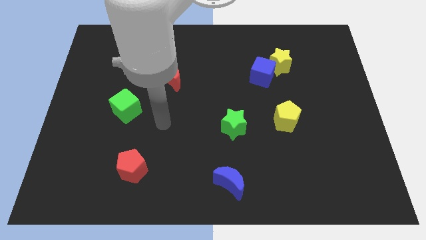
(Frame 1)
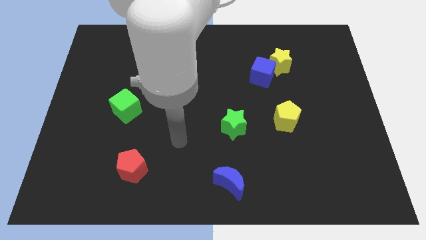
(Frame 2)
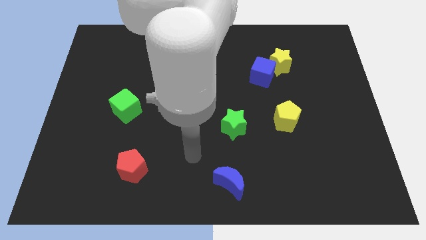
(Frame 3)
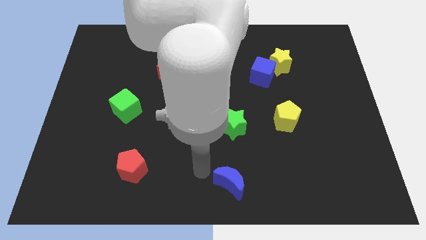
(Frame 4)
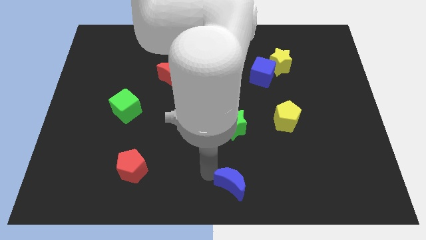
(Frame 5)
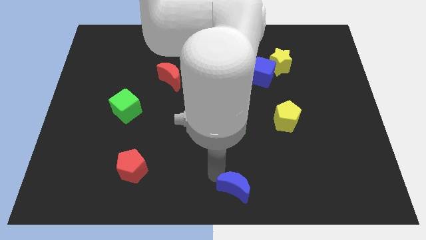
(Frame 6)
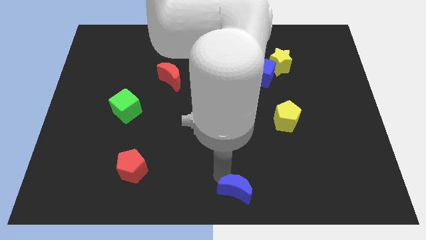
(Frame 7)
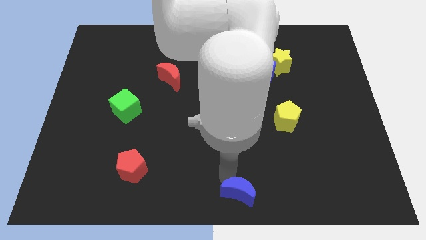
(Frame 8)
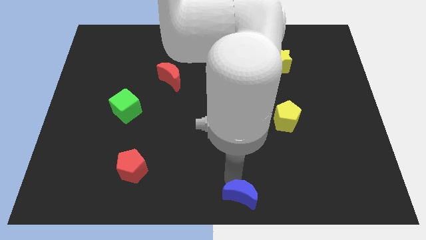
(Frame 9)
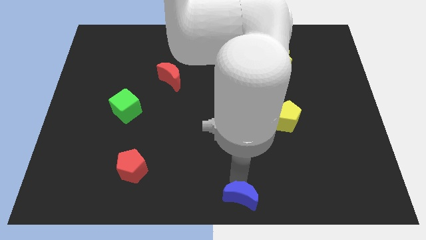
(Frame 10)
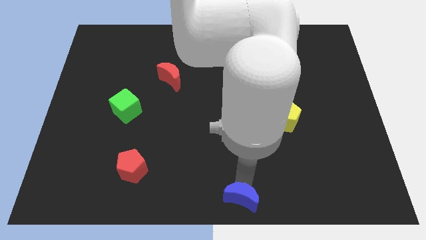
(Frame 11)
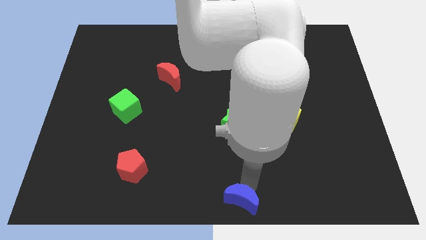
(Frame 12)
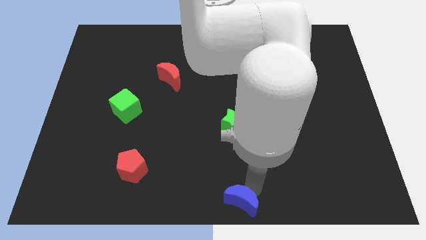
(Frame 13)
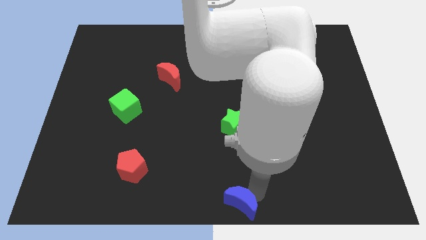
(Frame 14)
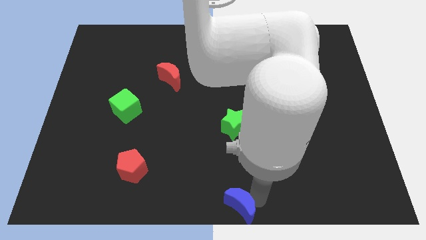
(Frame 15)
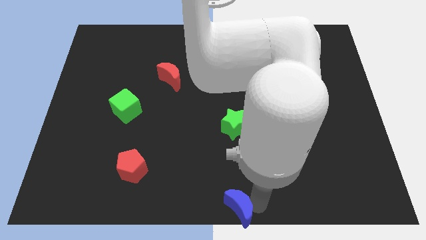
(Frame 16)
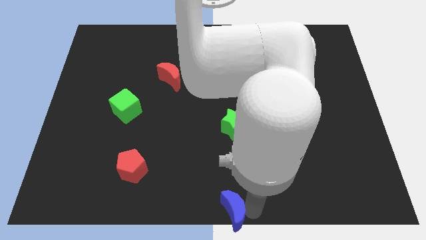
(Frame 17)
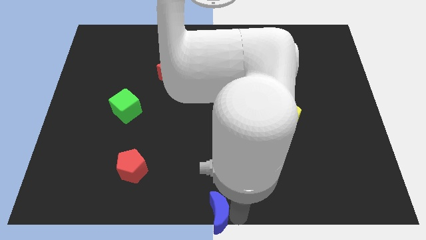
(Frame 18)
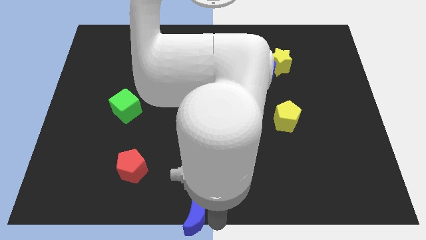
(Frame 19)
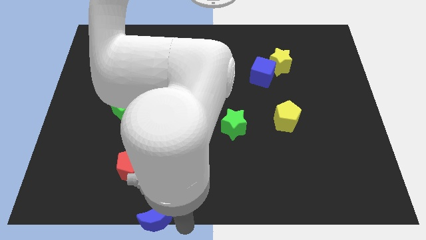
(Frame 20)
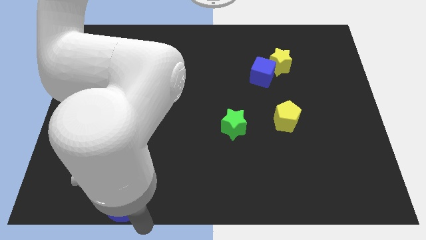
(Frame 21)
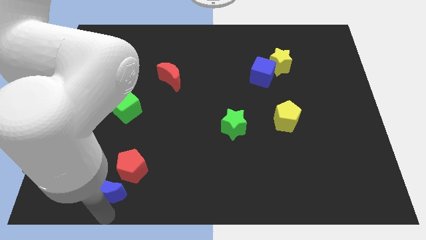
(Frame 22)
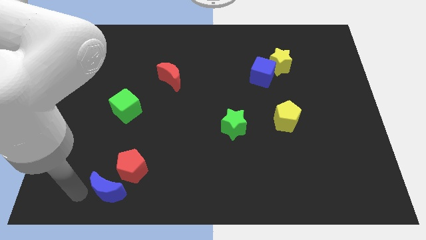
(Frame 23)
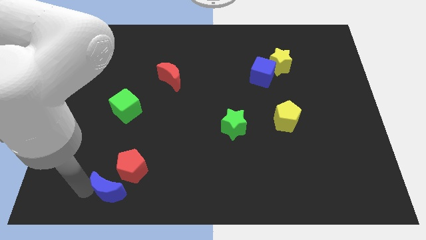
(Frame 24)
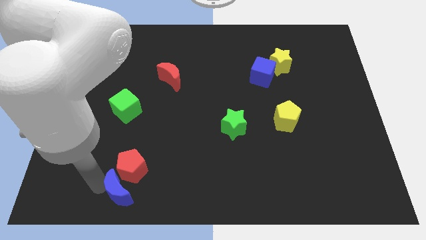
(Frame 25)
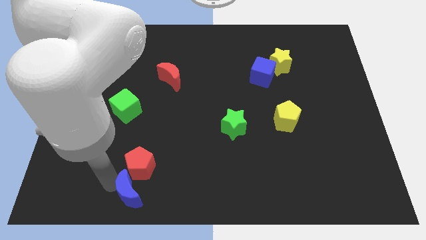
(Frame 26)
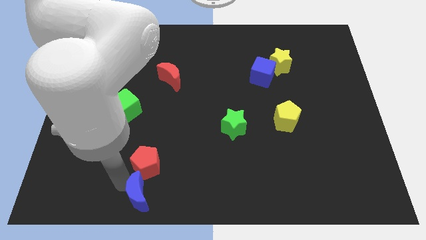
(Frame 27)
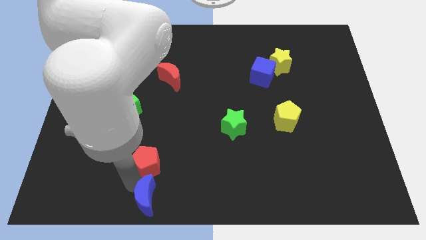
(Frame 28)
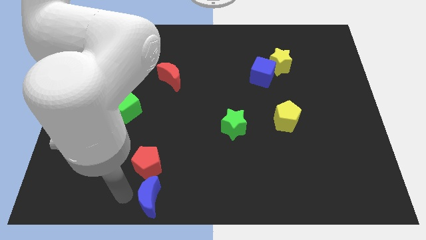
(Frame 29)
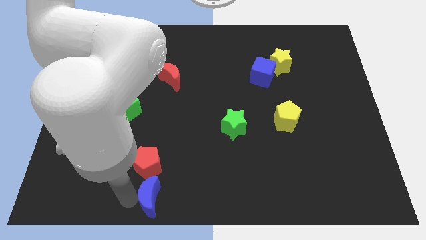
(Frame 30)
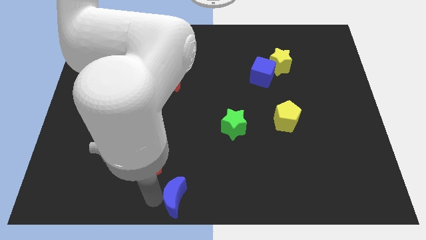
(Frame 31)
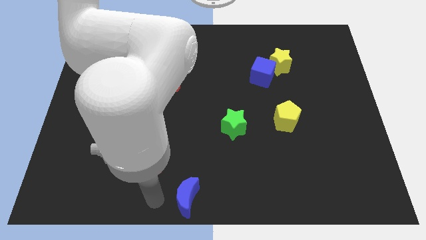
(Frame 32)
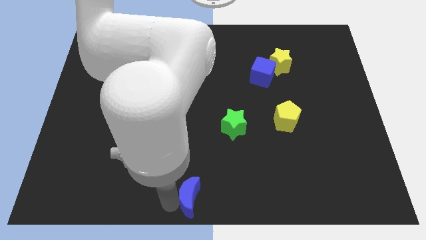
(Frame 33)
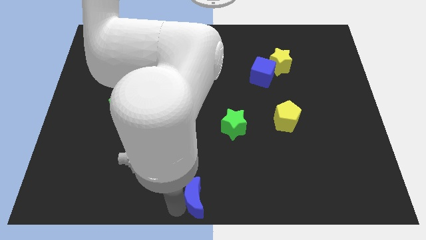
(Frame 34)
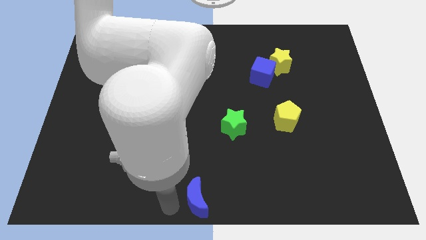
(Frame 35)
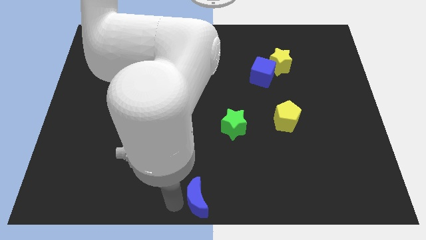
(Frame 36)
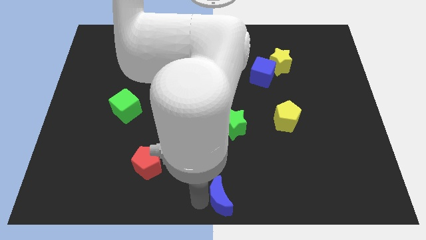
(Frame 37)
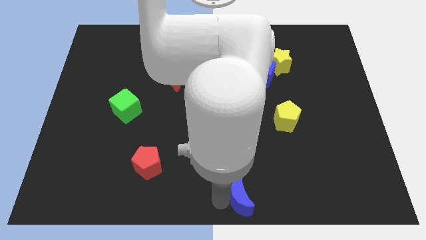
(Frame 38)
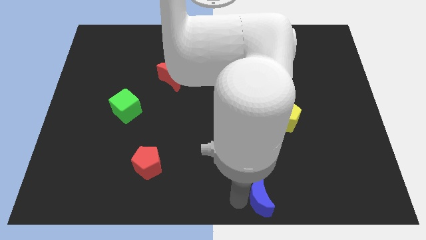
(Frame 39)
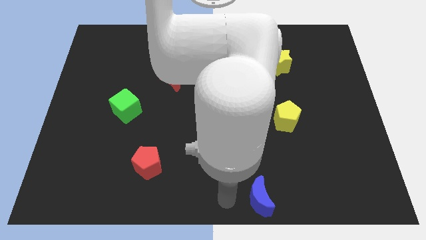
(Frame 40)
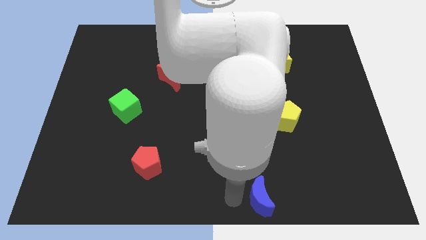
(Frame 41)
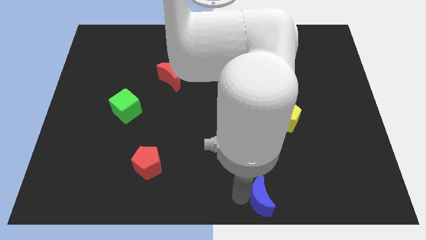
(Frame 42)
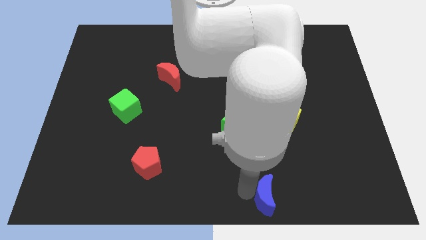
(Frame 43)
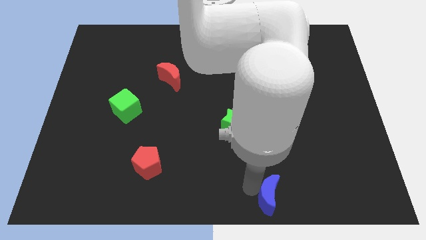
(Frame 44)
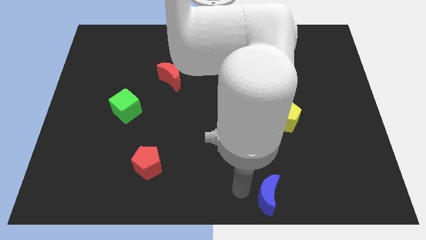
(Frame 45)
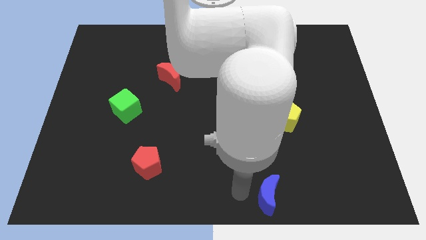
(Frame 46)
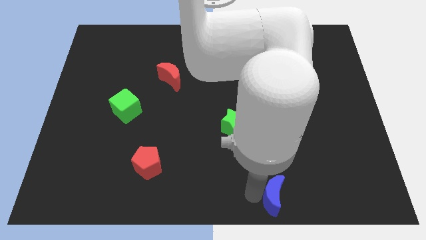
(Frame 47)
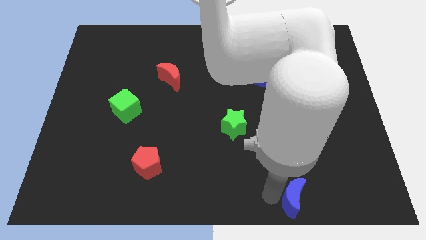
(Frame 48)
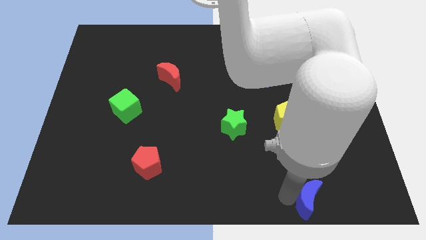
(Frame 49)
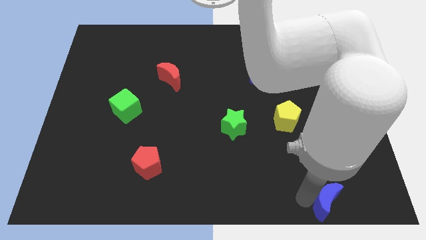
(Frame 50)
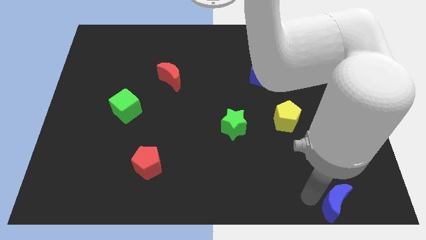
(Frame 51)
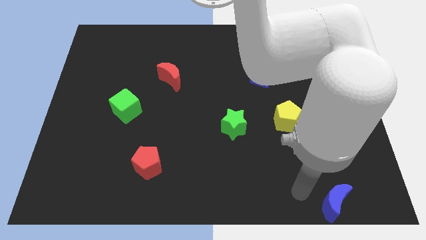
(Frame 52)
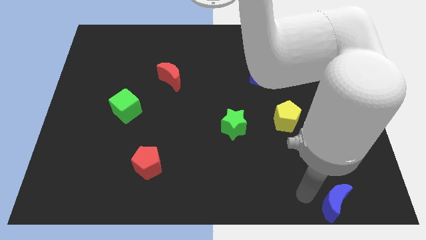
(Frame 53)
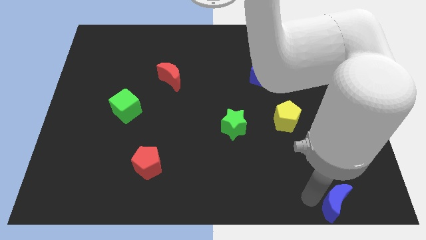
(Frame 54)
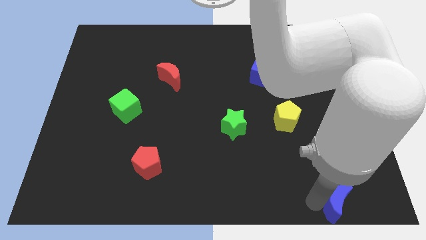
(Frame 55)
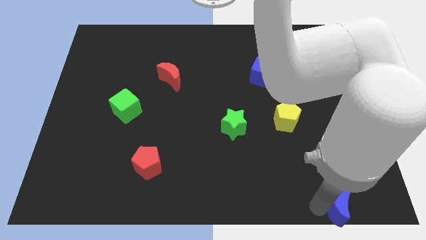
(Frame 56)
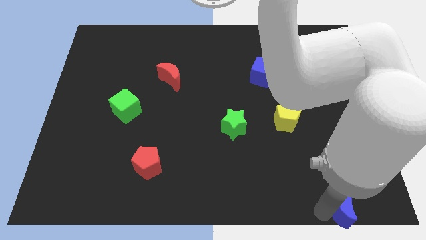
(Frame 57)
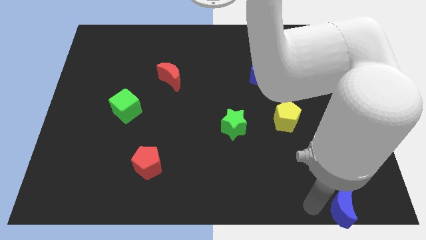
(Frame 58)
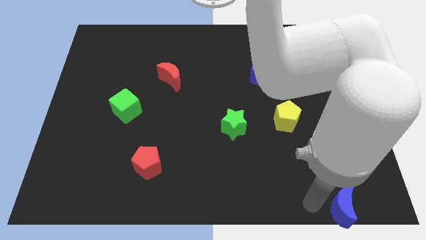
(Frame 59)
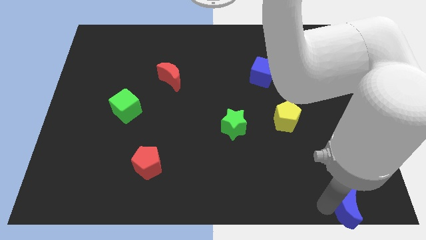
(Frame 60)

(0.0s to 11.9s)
put the blue moon to the bottom right

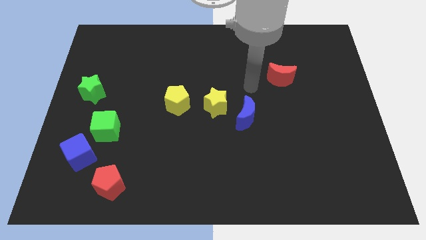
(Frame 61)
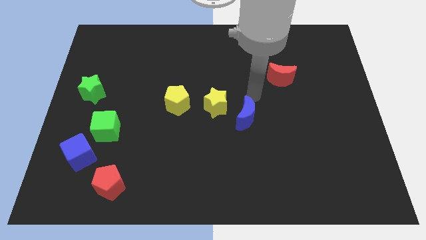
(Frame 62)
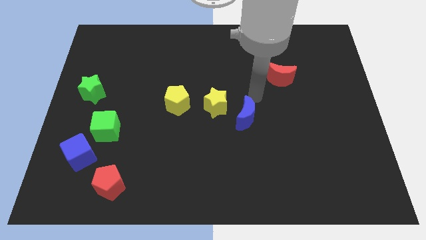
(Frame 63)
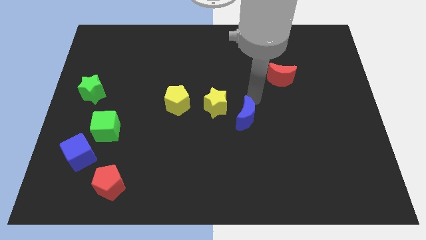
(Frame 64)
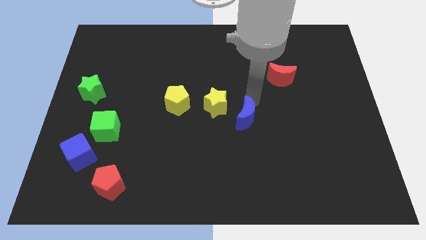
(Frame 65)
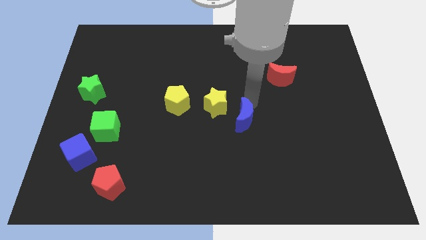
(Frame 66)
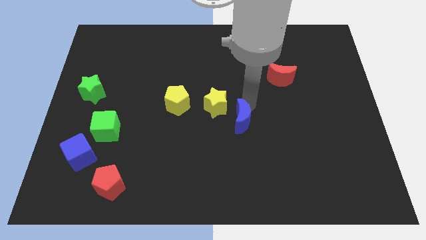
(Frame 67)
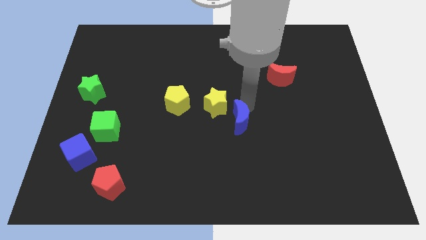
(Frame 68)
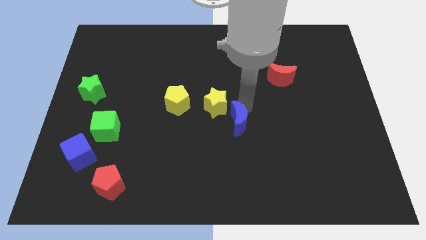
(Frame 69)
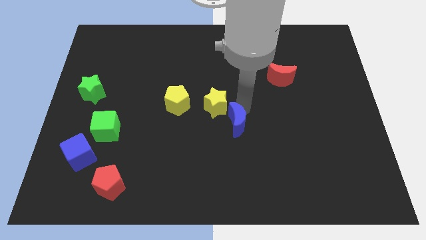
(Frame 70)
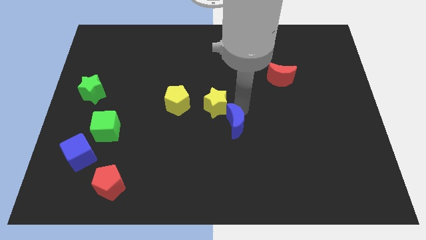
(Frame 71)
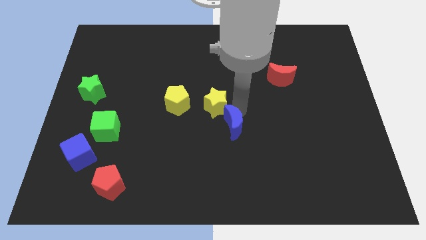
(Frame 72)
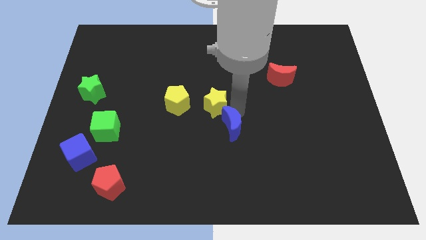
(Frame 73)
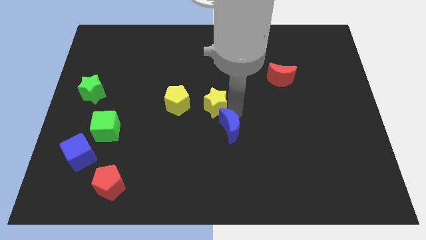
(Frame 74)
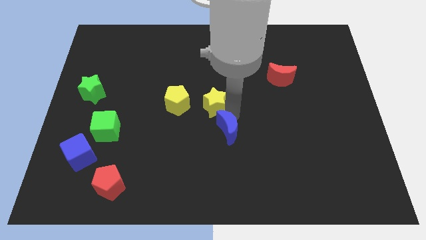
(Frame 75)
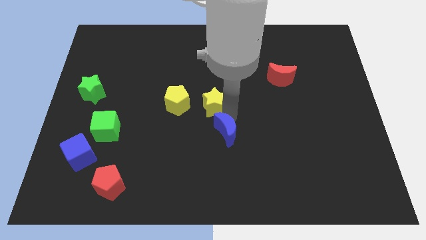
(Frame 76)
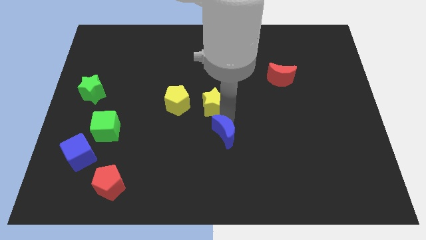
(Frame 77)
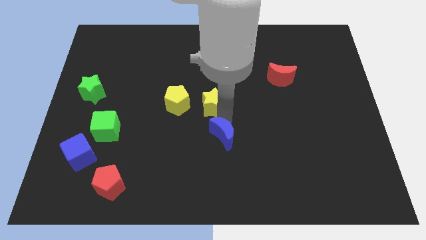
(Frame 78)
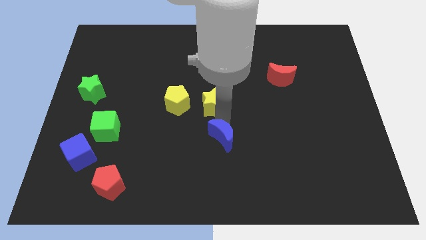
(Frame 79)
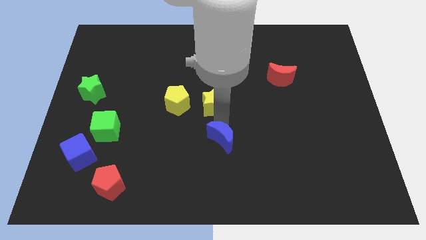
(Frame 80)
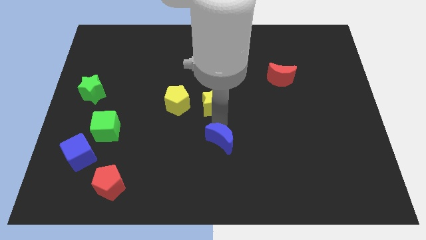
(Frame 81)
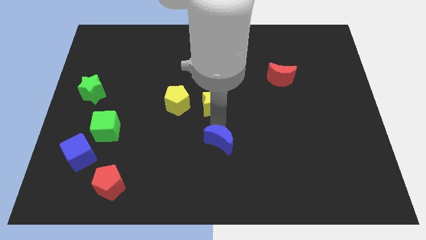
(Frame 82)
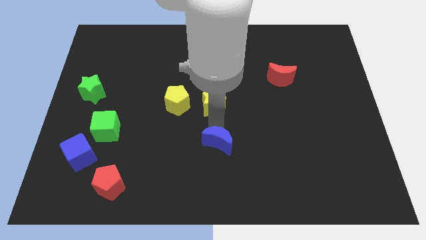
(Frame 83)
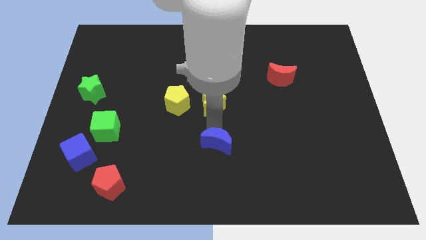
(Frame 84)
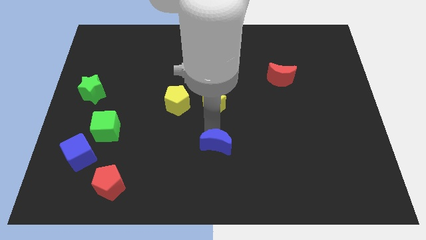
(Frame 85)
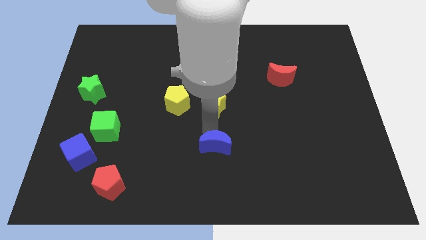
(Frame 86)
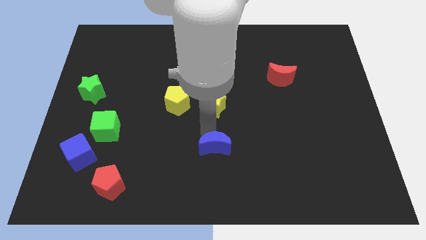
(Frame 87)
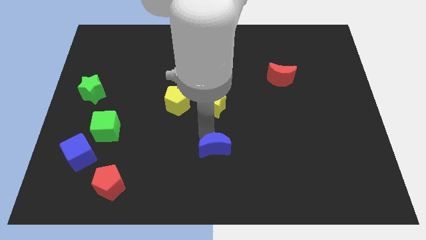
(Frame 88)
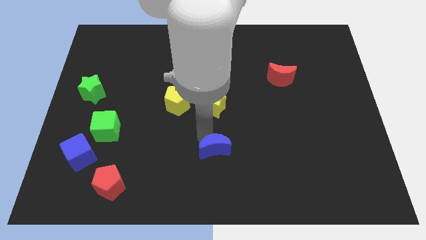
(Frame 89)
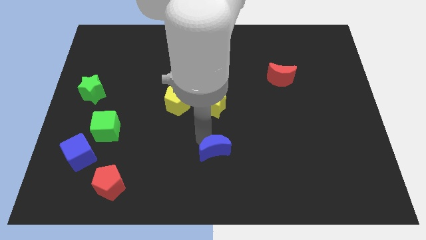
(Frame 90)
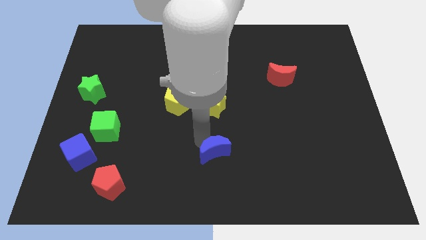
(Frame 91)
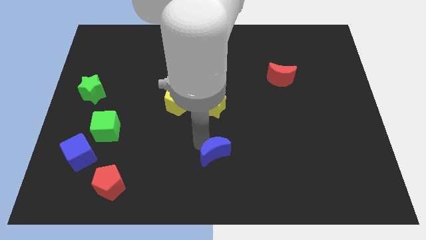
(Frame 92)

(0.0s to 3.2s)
slide the blue moon to the bottom
